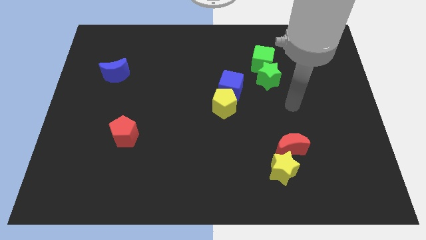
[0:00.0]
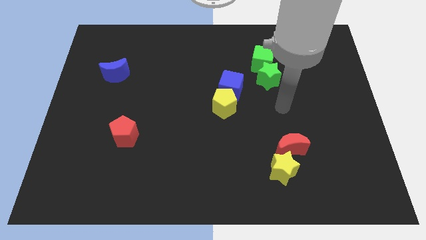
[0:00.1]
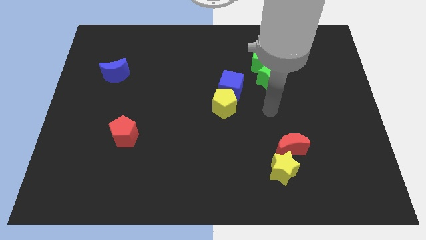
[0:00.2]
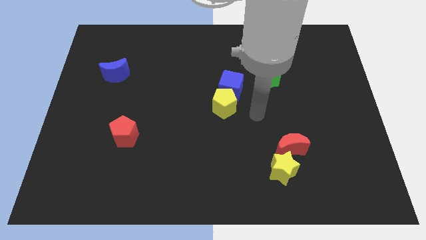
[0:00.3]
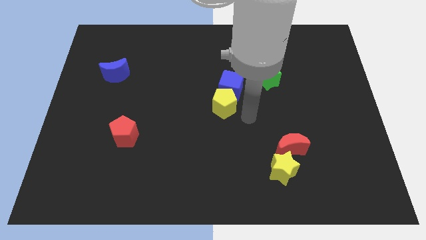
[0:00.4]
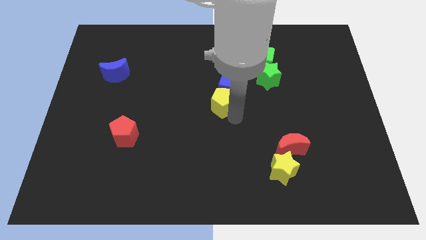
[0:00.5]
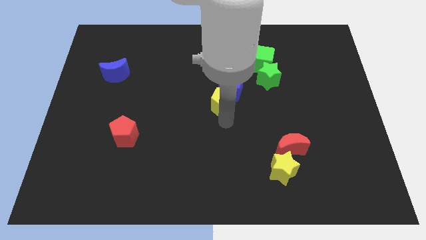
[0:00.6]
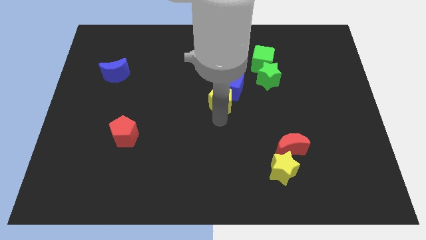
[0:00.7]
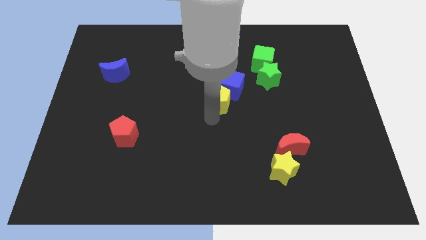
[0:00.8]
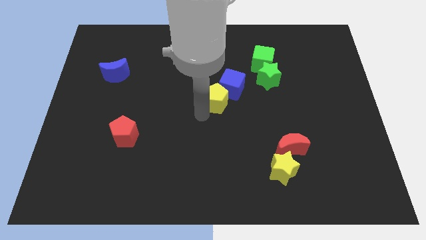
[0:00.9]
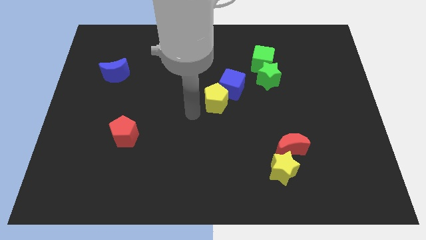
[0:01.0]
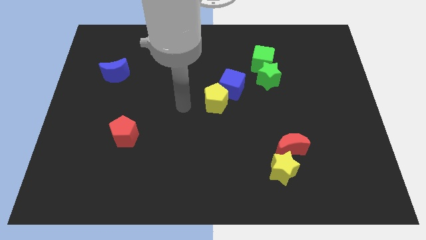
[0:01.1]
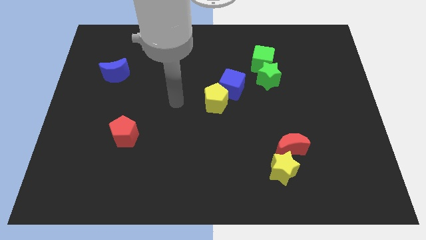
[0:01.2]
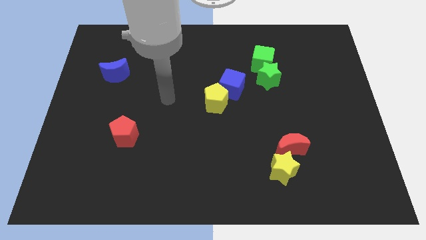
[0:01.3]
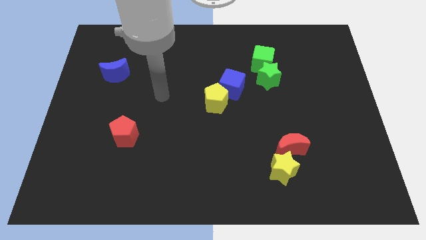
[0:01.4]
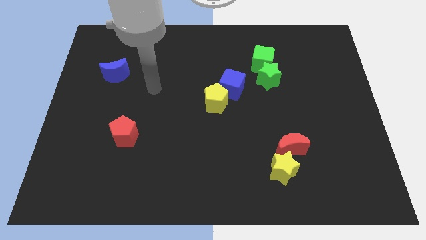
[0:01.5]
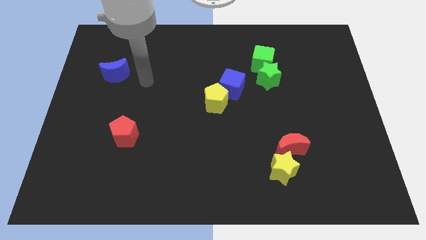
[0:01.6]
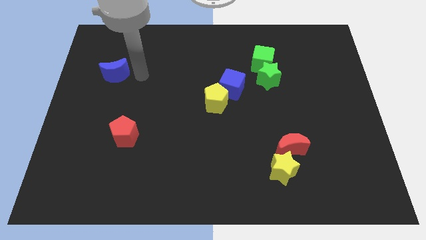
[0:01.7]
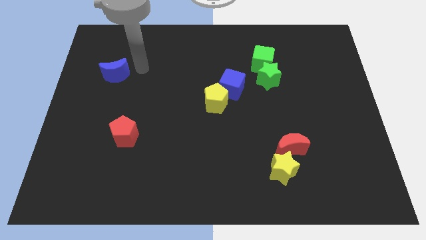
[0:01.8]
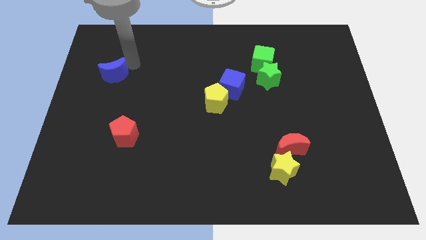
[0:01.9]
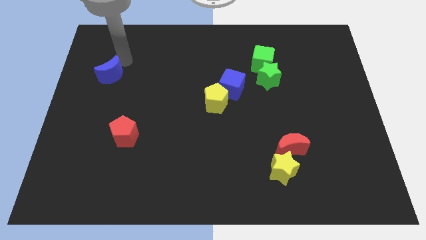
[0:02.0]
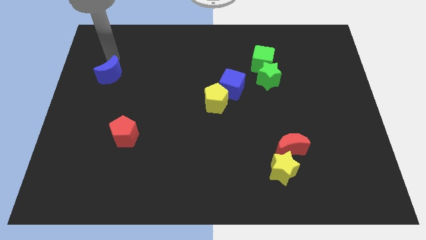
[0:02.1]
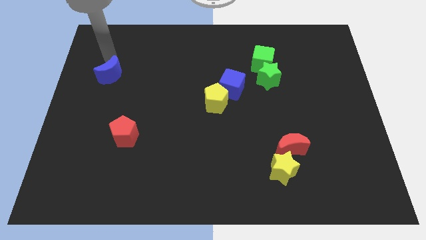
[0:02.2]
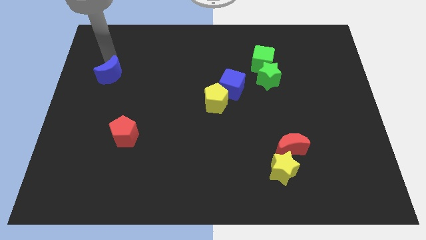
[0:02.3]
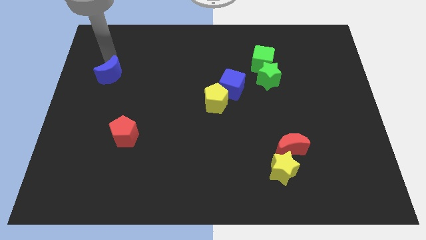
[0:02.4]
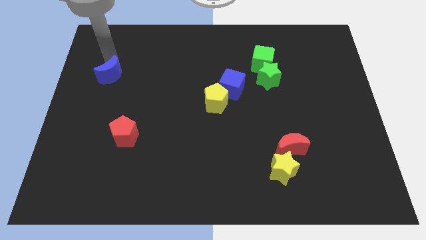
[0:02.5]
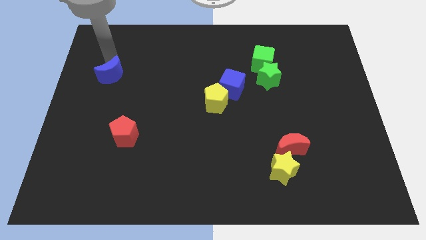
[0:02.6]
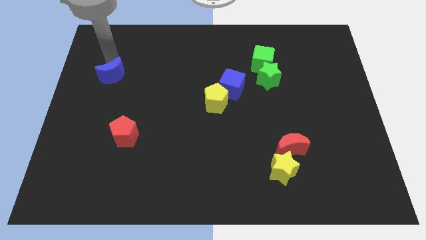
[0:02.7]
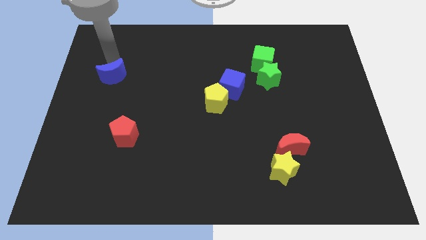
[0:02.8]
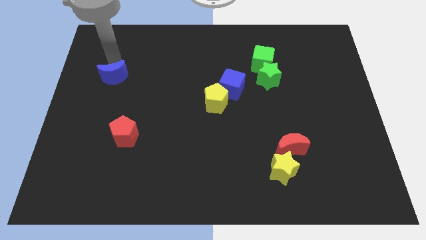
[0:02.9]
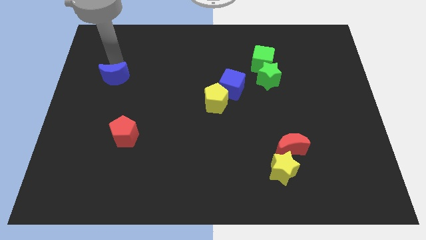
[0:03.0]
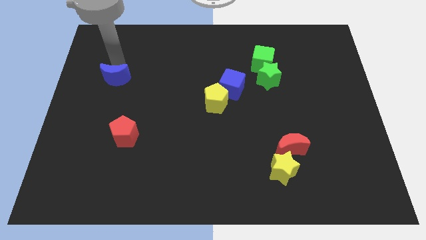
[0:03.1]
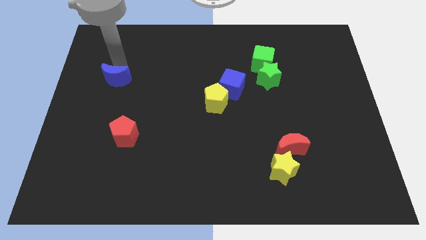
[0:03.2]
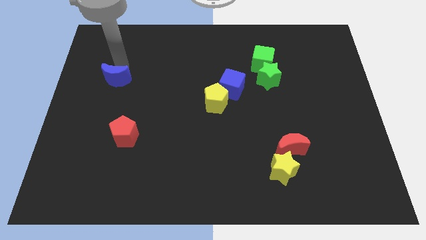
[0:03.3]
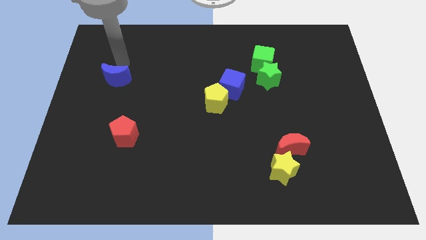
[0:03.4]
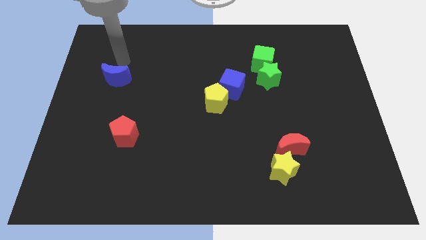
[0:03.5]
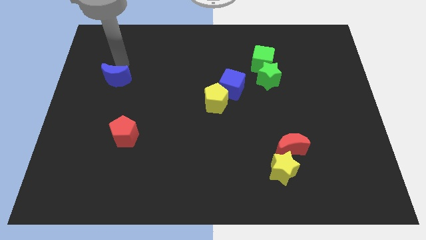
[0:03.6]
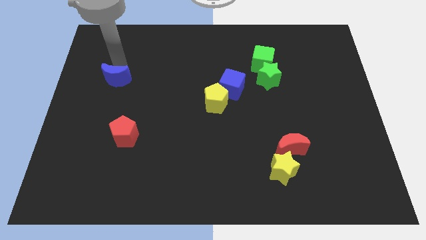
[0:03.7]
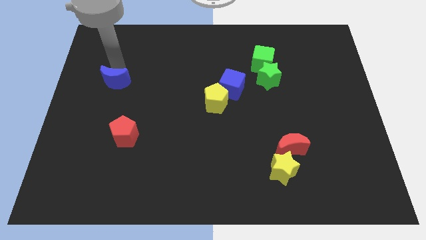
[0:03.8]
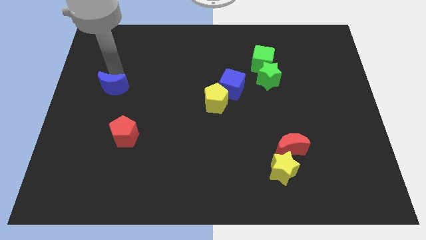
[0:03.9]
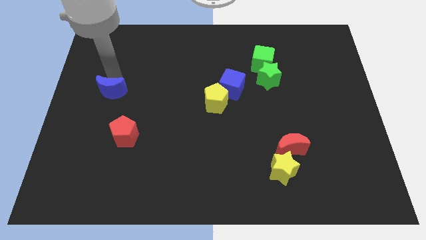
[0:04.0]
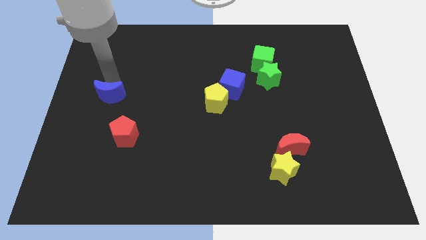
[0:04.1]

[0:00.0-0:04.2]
move the blue moon a little down

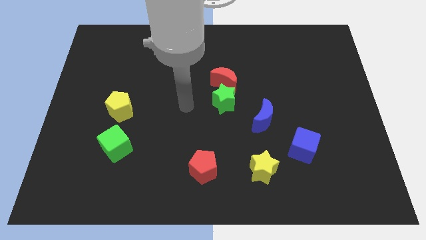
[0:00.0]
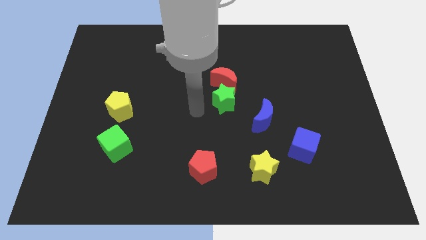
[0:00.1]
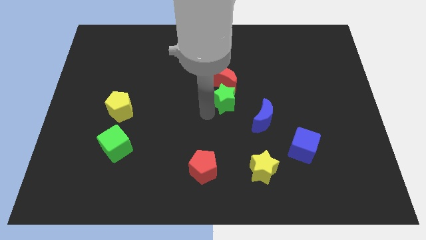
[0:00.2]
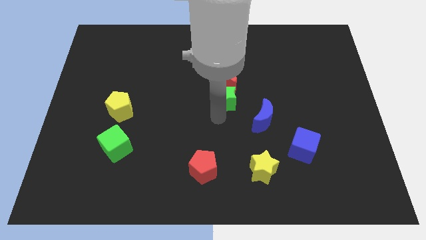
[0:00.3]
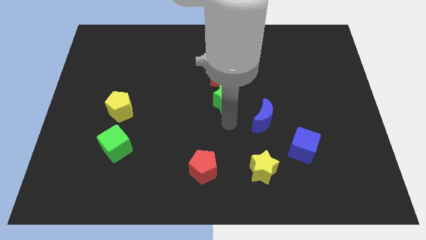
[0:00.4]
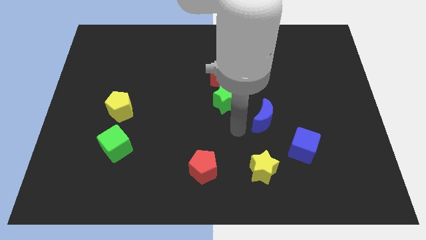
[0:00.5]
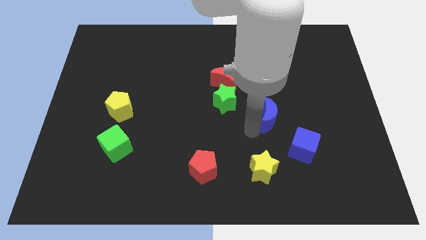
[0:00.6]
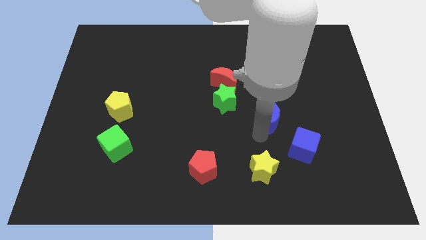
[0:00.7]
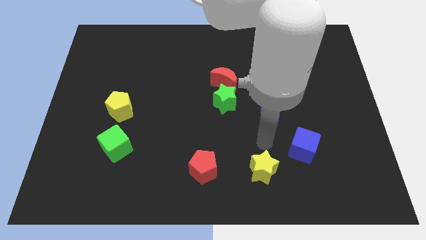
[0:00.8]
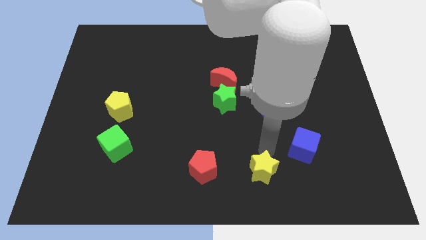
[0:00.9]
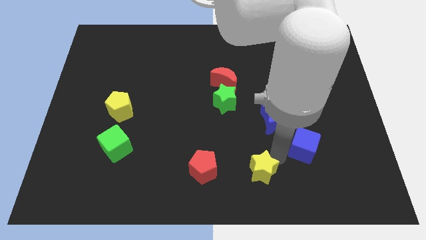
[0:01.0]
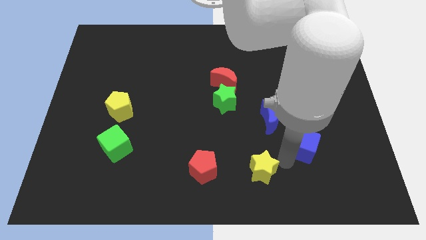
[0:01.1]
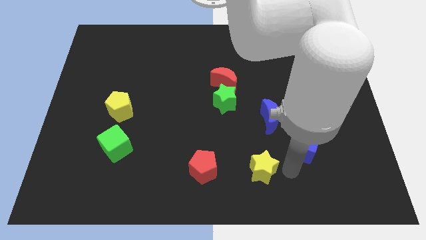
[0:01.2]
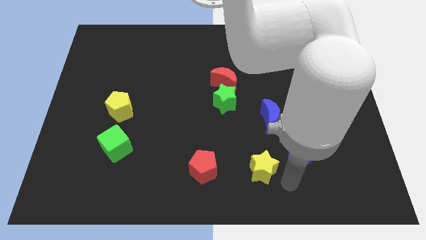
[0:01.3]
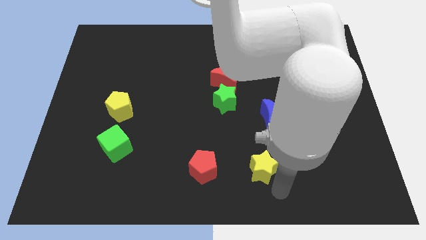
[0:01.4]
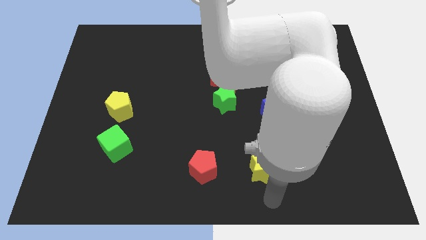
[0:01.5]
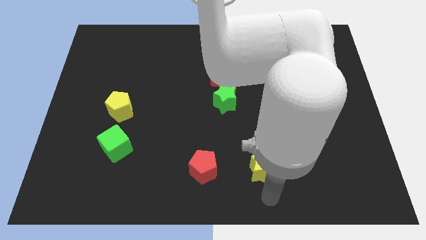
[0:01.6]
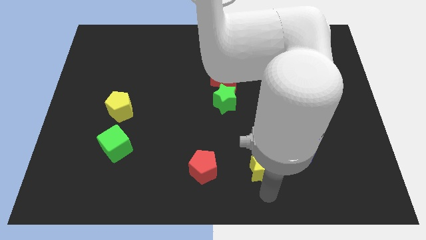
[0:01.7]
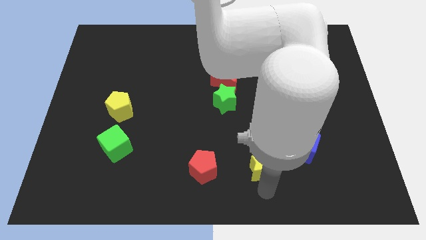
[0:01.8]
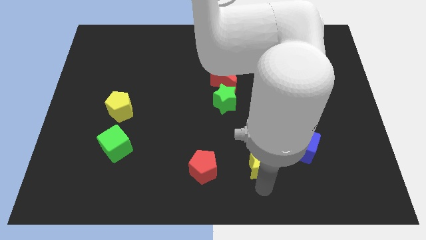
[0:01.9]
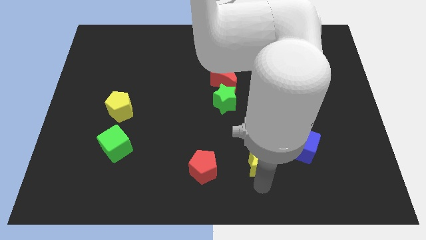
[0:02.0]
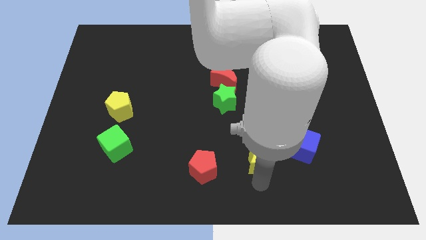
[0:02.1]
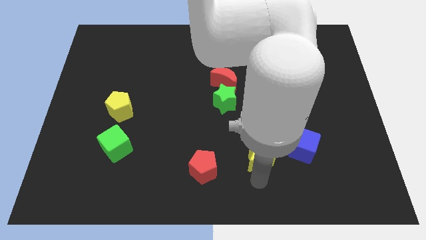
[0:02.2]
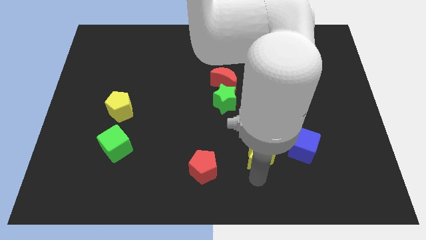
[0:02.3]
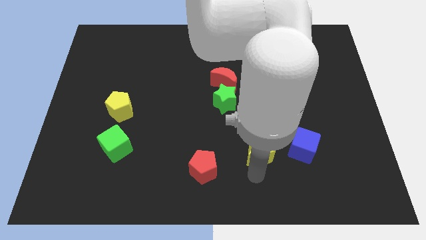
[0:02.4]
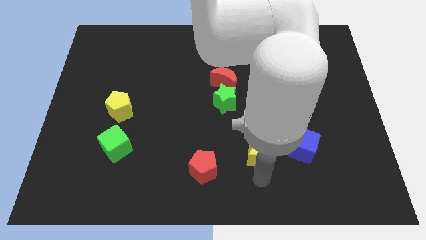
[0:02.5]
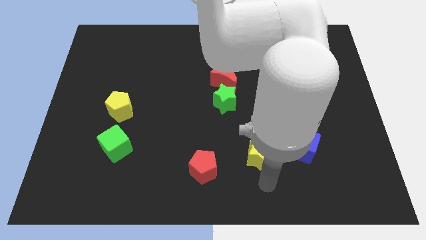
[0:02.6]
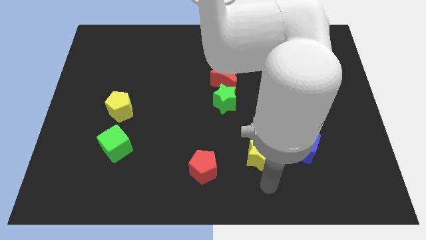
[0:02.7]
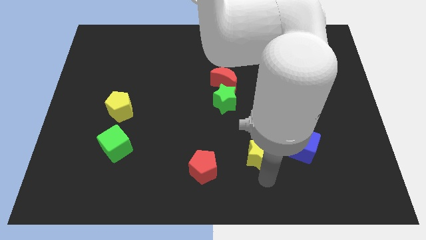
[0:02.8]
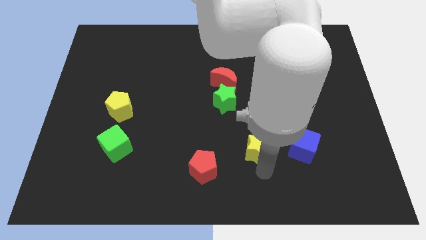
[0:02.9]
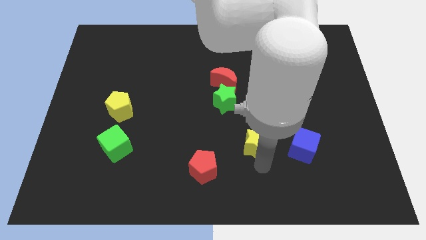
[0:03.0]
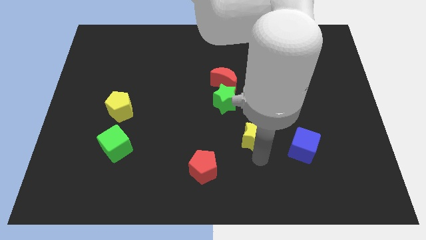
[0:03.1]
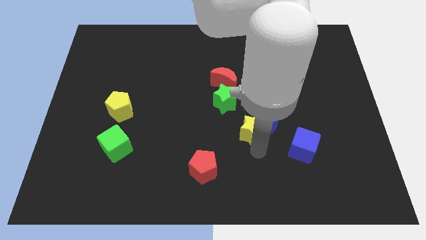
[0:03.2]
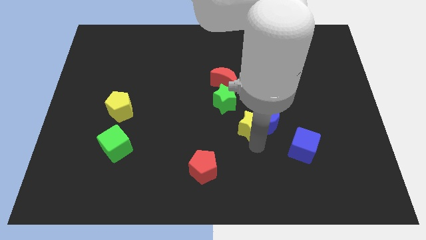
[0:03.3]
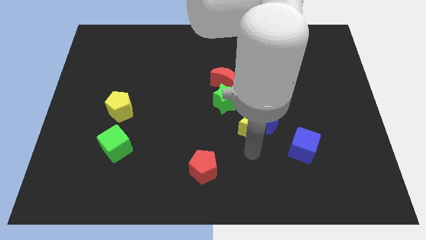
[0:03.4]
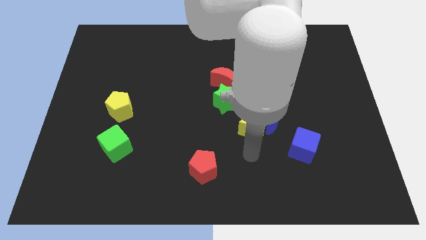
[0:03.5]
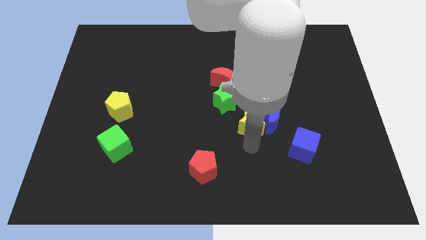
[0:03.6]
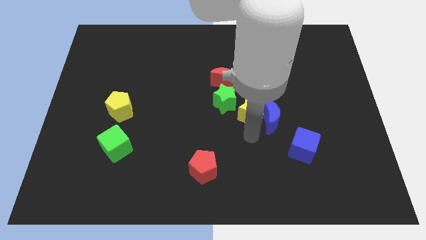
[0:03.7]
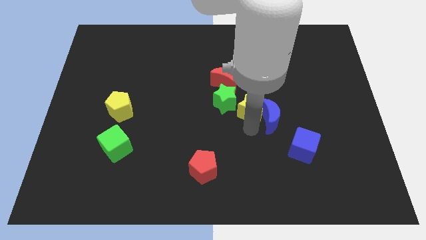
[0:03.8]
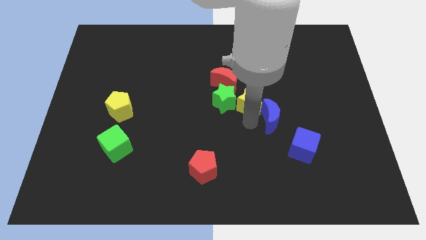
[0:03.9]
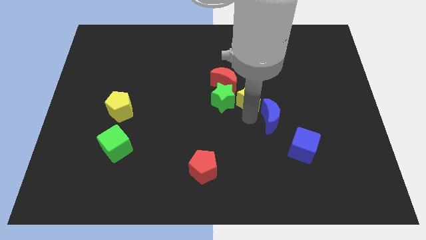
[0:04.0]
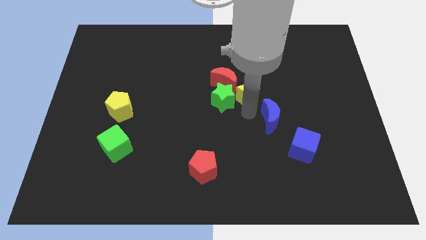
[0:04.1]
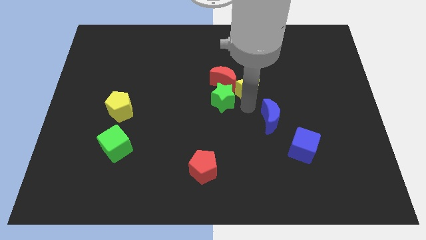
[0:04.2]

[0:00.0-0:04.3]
move the yellow star up
